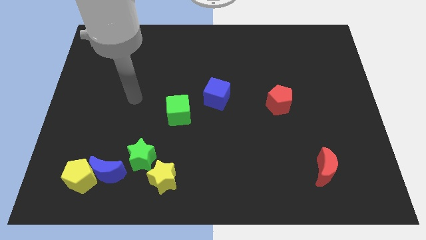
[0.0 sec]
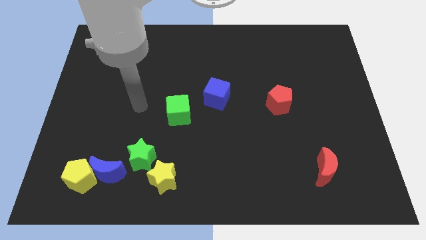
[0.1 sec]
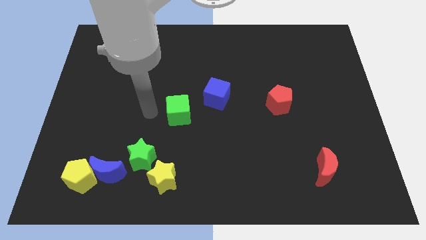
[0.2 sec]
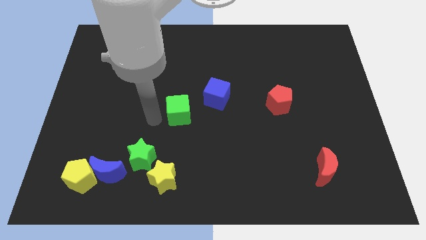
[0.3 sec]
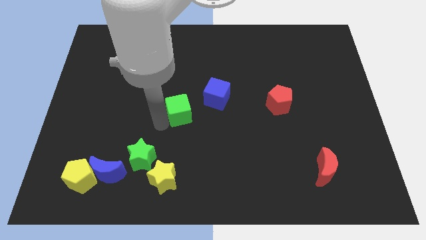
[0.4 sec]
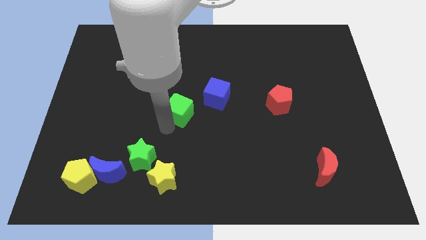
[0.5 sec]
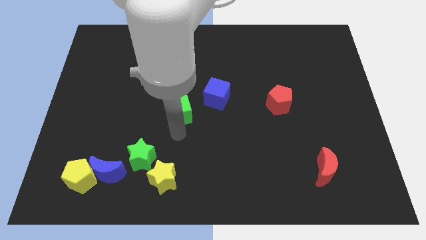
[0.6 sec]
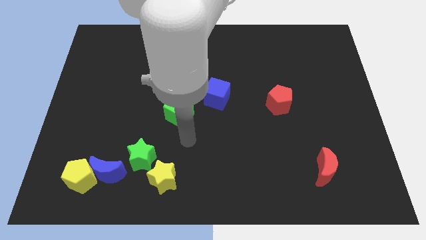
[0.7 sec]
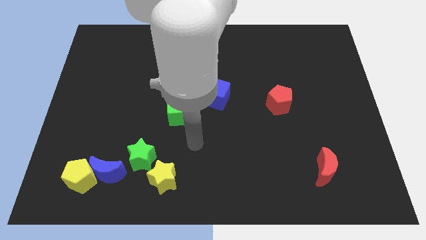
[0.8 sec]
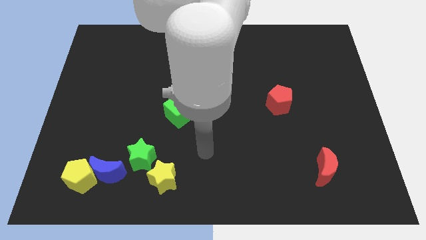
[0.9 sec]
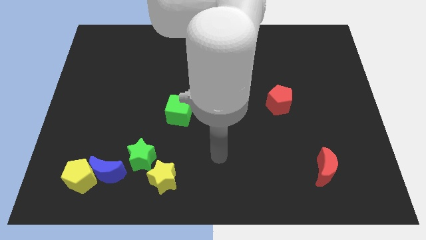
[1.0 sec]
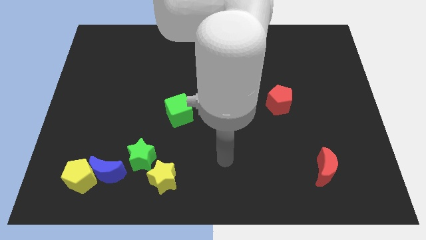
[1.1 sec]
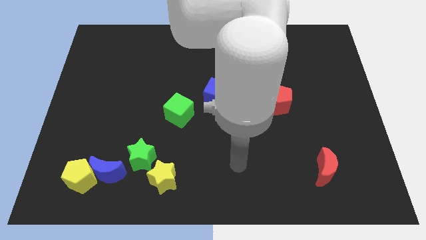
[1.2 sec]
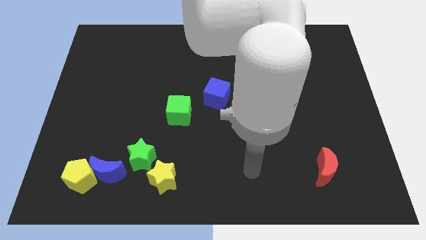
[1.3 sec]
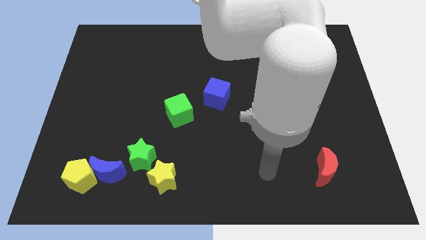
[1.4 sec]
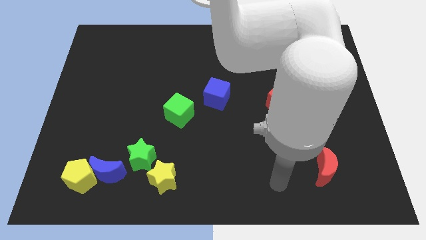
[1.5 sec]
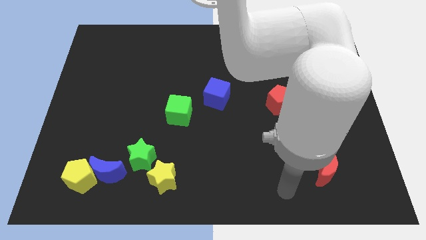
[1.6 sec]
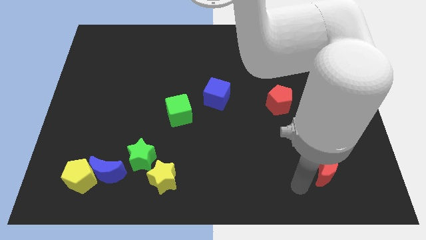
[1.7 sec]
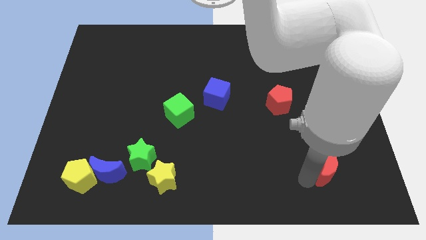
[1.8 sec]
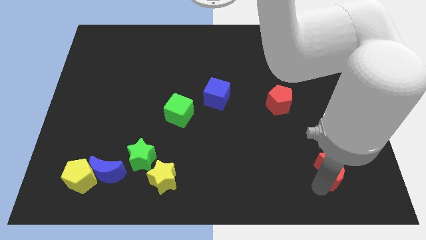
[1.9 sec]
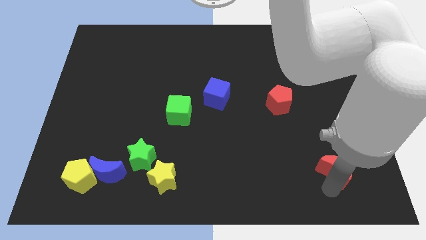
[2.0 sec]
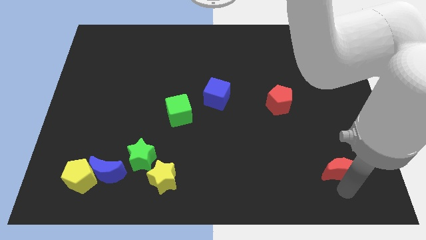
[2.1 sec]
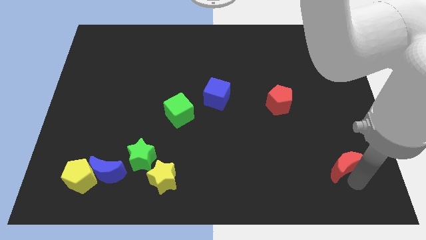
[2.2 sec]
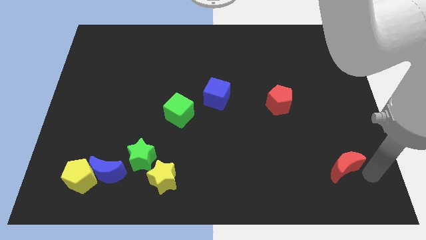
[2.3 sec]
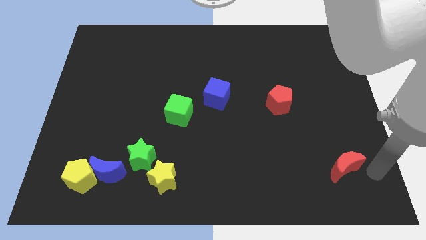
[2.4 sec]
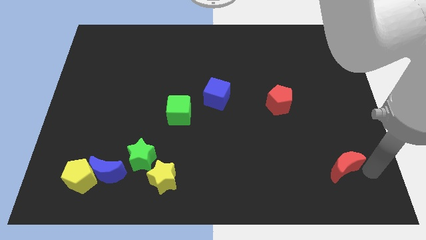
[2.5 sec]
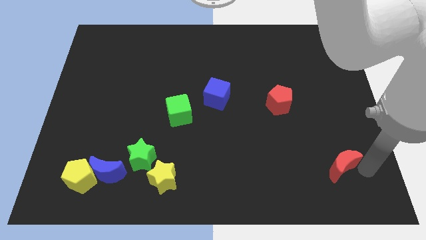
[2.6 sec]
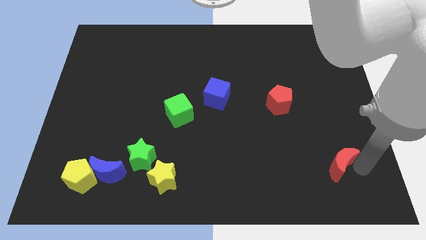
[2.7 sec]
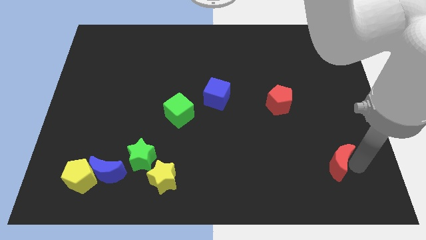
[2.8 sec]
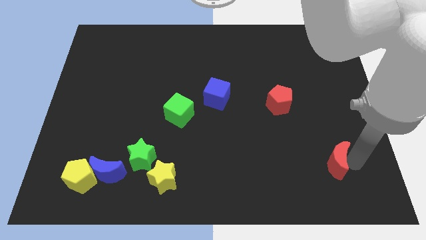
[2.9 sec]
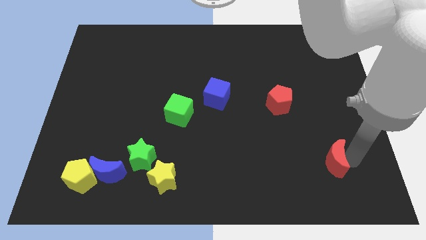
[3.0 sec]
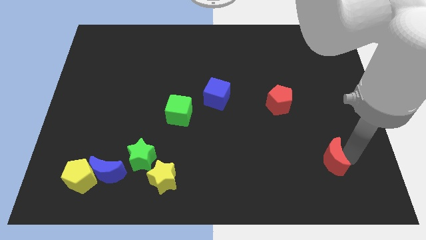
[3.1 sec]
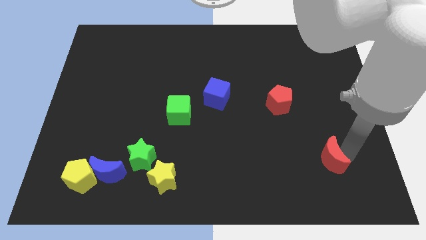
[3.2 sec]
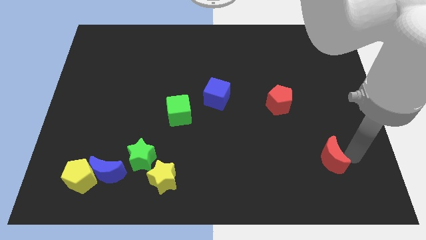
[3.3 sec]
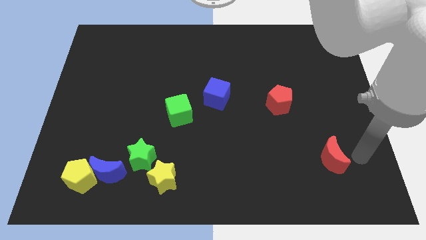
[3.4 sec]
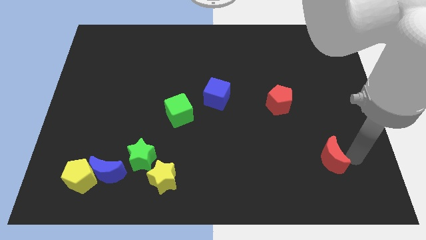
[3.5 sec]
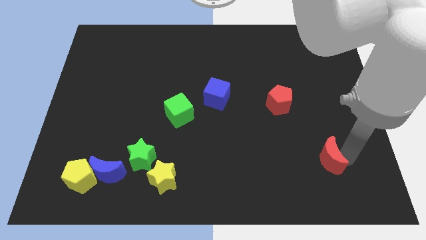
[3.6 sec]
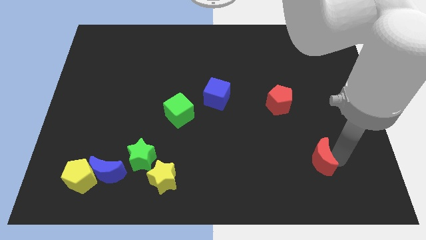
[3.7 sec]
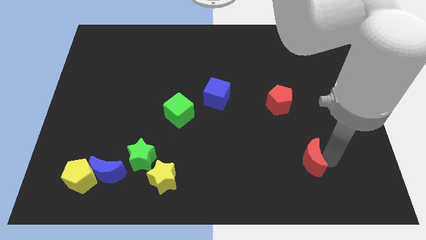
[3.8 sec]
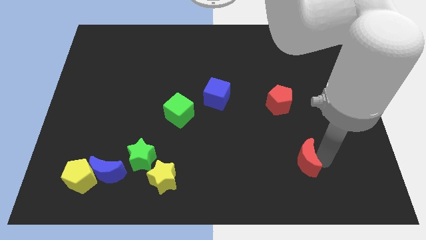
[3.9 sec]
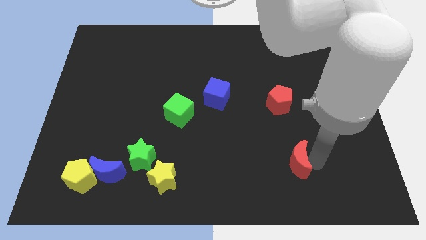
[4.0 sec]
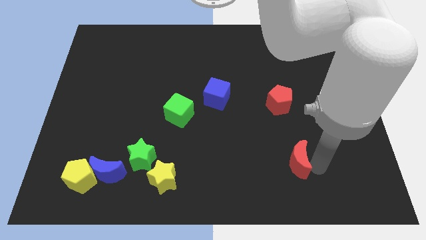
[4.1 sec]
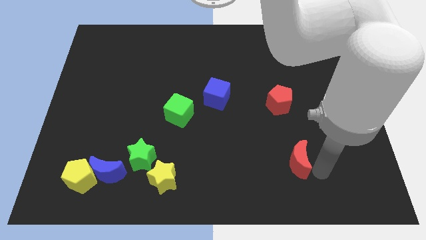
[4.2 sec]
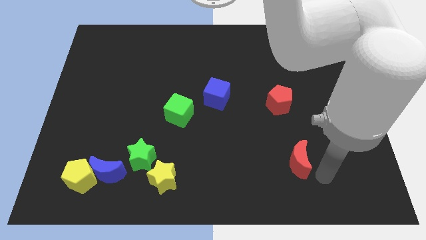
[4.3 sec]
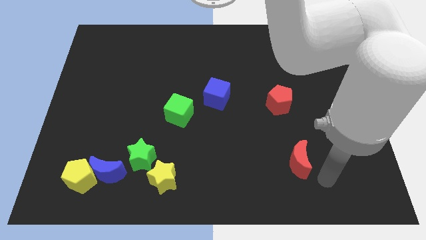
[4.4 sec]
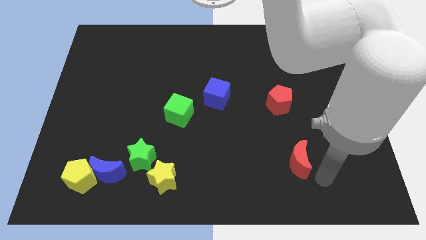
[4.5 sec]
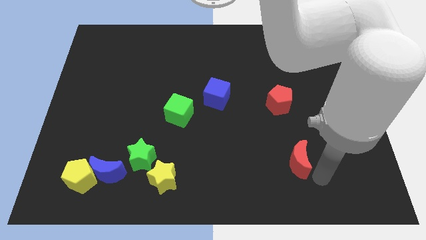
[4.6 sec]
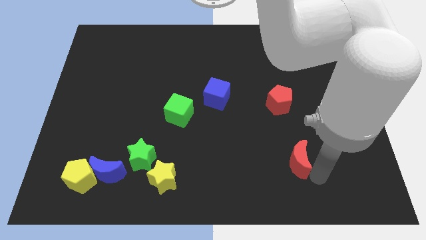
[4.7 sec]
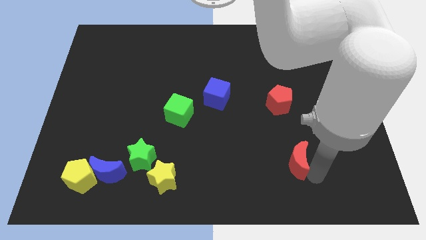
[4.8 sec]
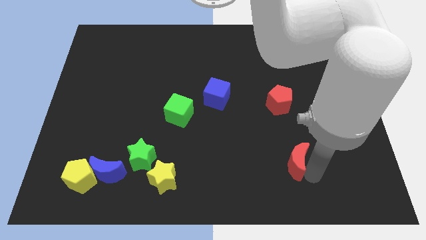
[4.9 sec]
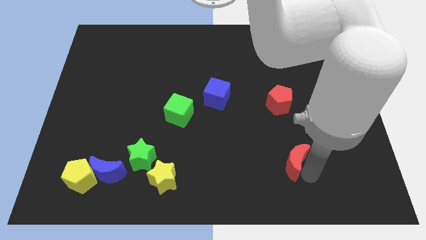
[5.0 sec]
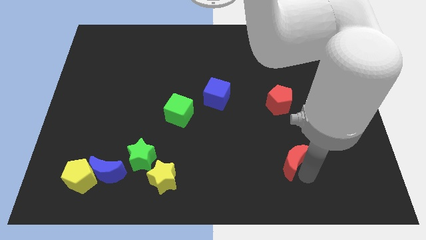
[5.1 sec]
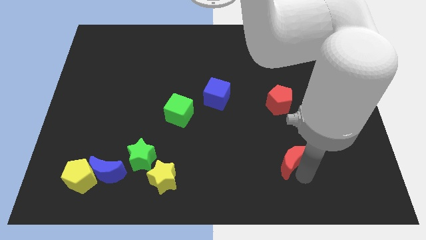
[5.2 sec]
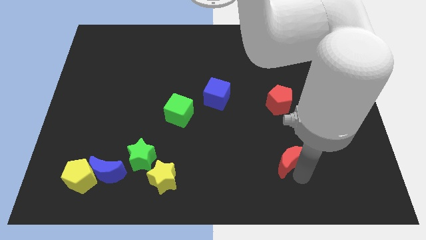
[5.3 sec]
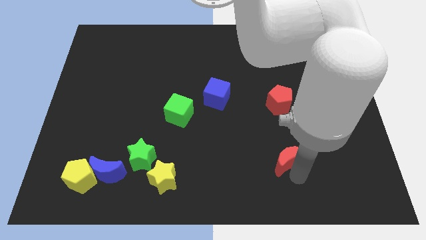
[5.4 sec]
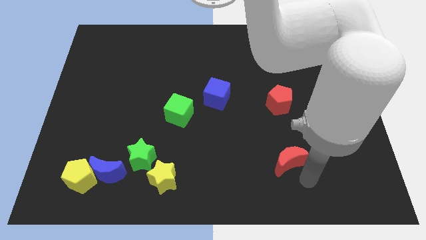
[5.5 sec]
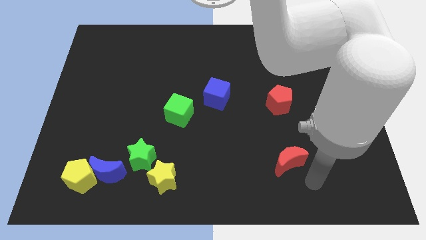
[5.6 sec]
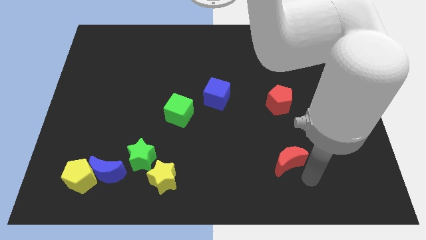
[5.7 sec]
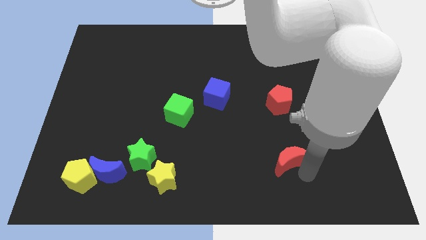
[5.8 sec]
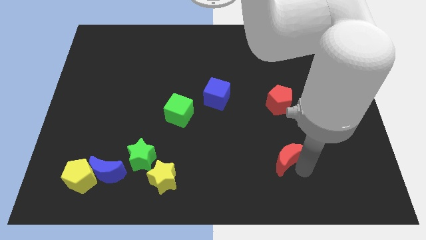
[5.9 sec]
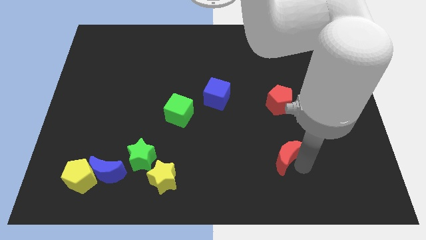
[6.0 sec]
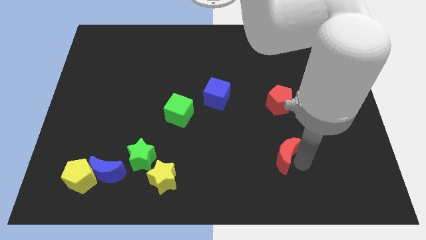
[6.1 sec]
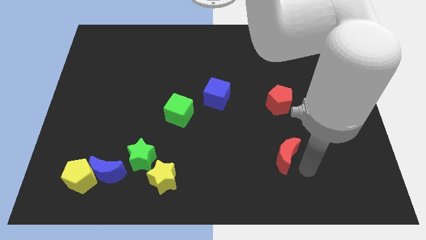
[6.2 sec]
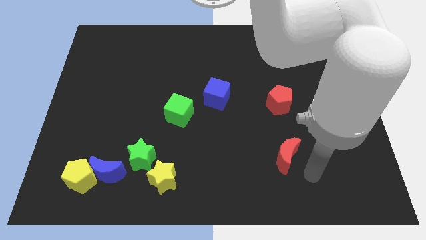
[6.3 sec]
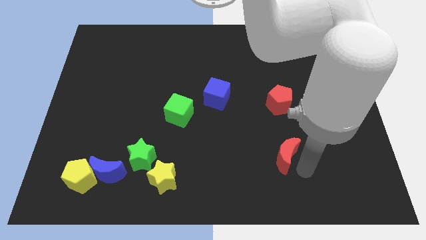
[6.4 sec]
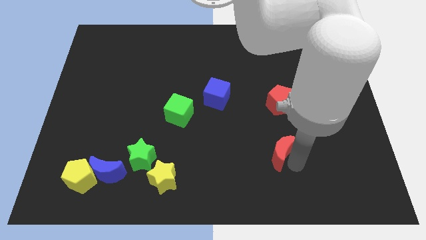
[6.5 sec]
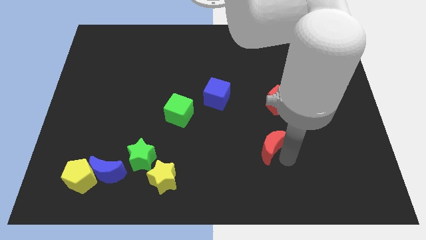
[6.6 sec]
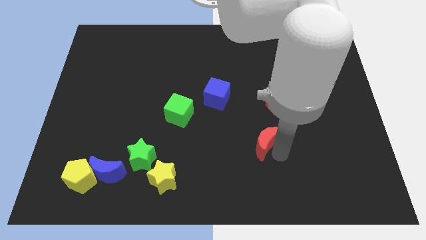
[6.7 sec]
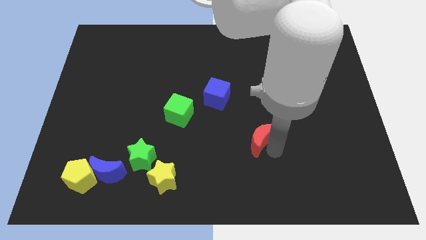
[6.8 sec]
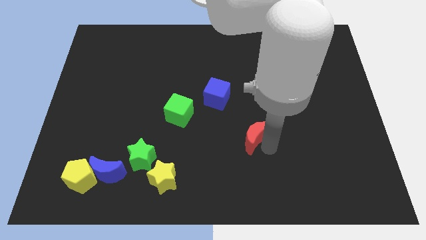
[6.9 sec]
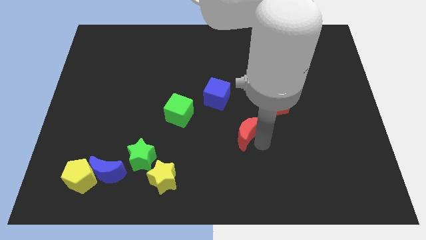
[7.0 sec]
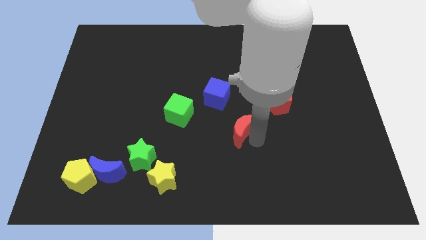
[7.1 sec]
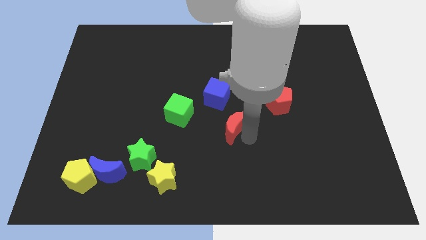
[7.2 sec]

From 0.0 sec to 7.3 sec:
push the red moon to the right of the green cube
